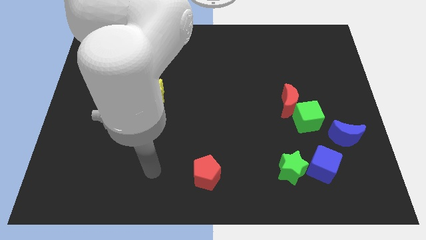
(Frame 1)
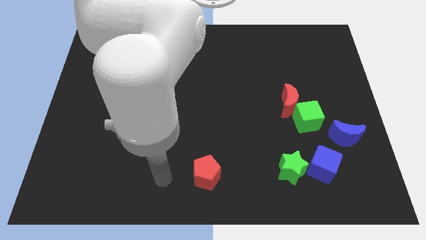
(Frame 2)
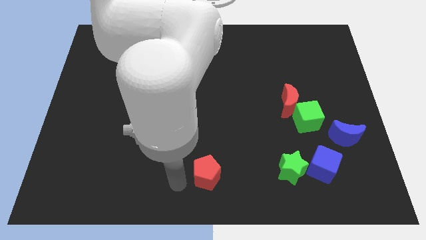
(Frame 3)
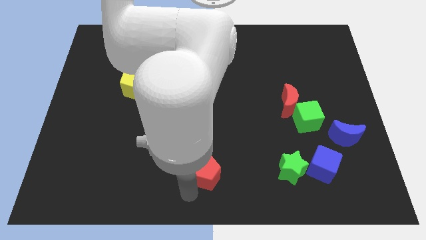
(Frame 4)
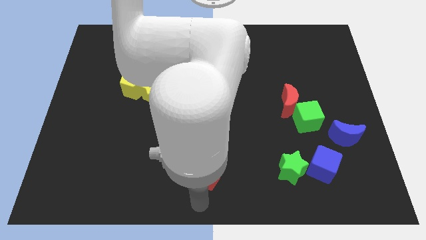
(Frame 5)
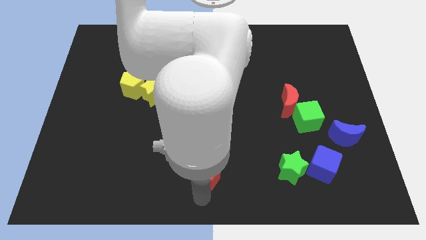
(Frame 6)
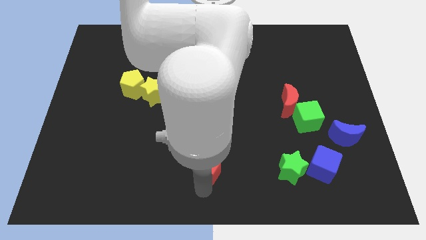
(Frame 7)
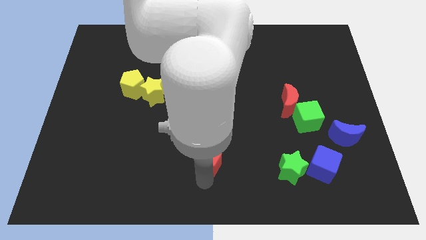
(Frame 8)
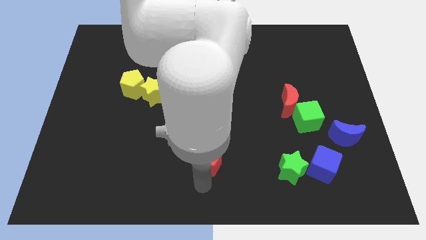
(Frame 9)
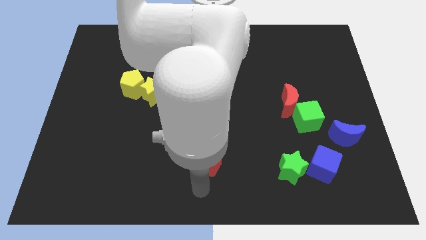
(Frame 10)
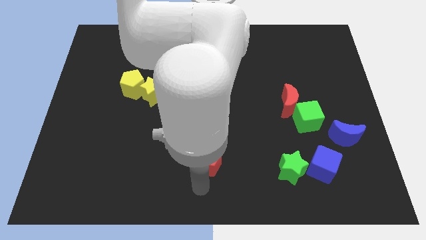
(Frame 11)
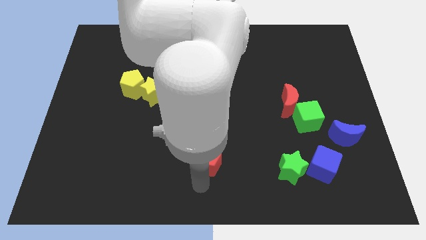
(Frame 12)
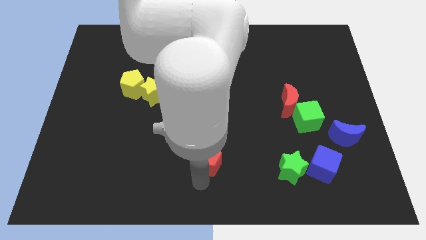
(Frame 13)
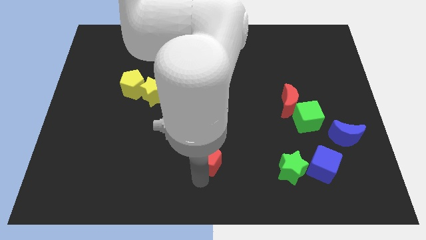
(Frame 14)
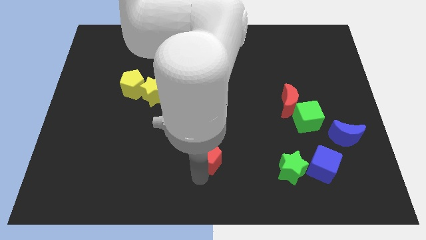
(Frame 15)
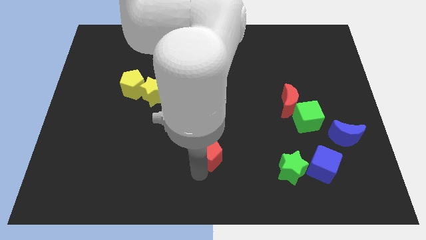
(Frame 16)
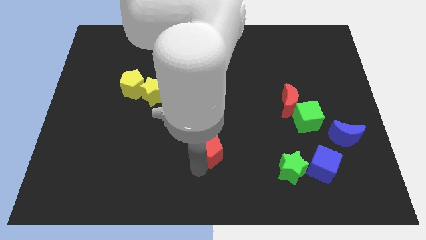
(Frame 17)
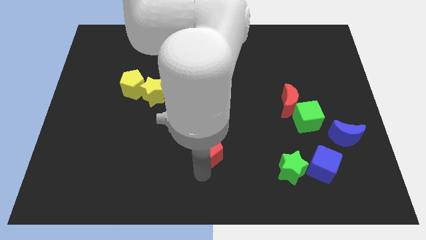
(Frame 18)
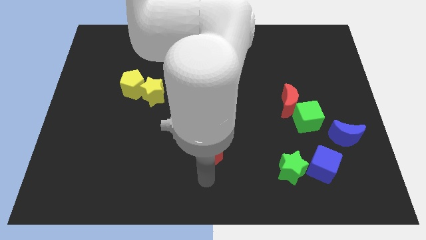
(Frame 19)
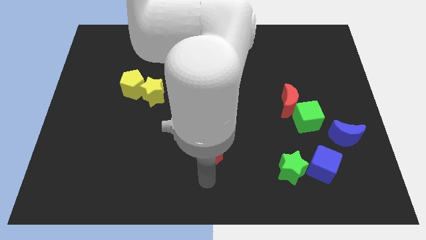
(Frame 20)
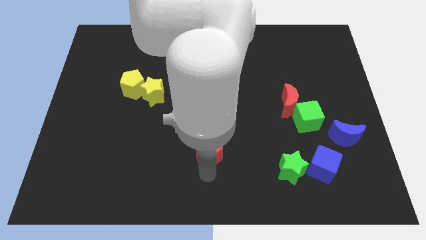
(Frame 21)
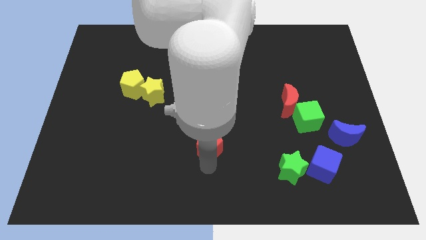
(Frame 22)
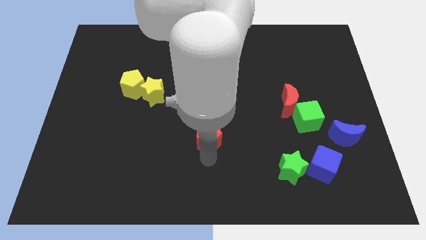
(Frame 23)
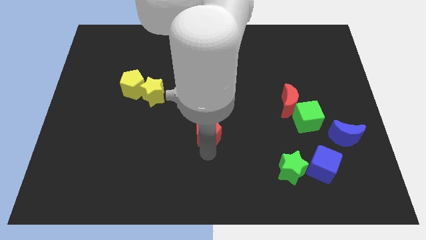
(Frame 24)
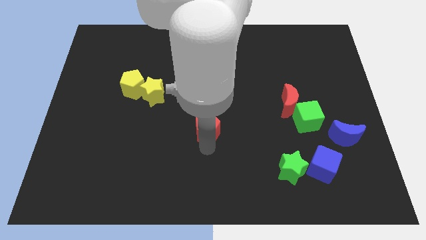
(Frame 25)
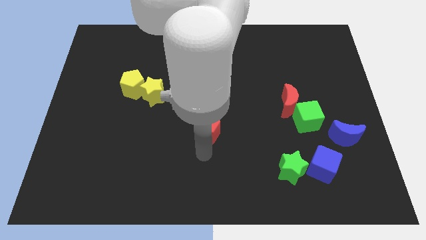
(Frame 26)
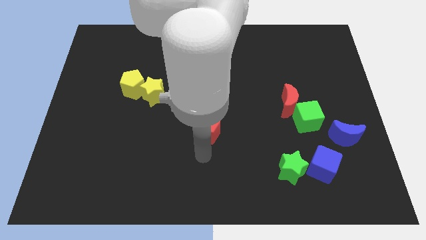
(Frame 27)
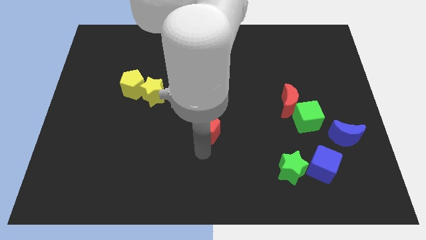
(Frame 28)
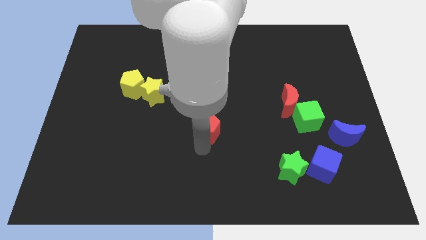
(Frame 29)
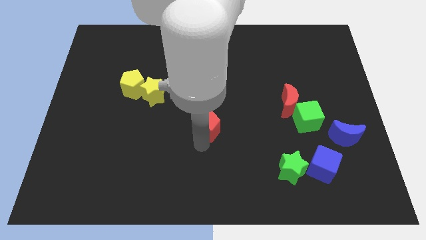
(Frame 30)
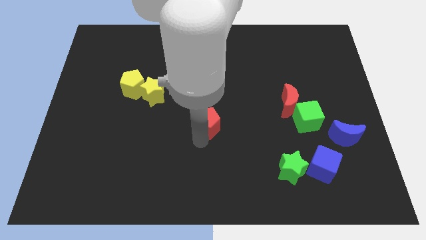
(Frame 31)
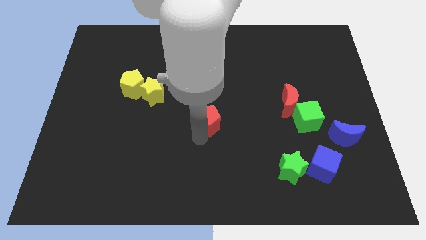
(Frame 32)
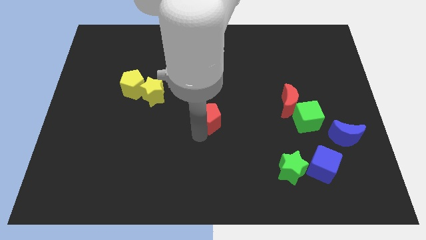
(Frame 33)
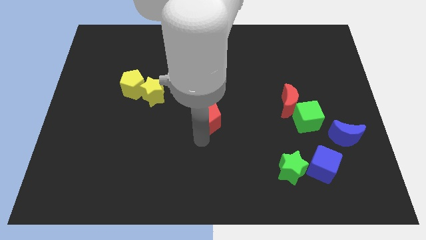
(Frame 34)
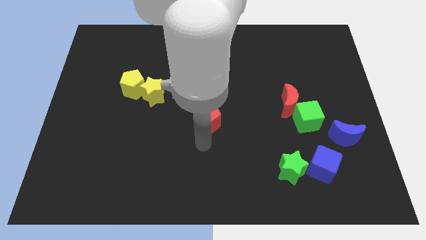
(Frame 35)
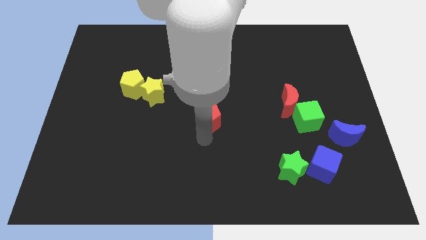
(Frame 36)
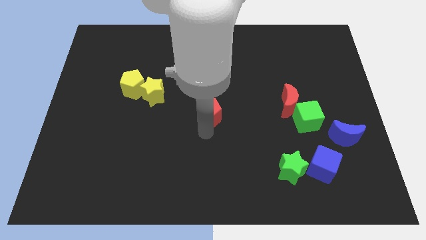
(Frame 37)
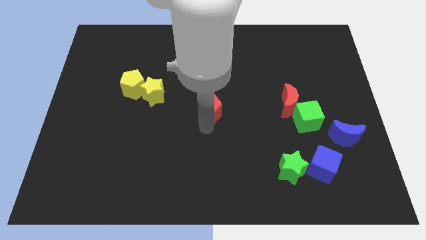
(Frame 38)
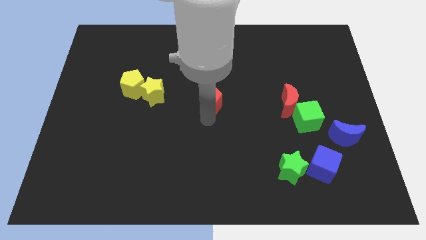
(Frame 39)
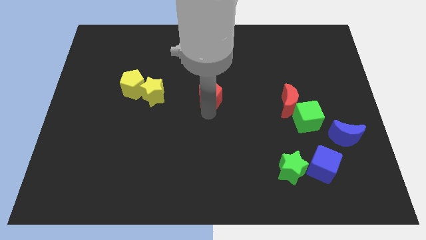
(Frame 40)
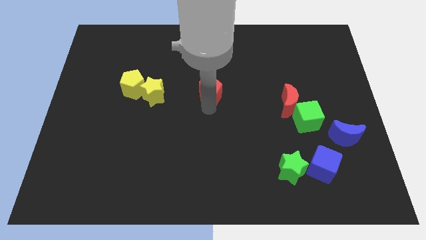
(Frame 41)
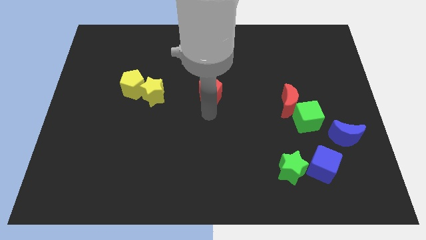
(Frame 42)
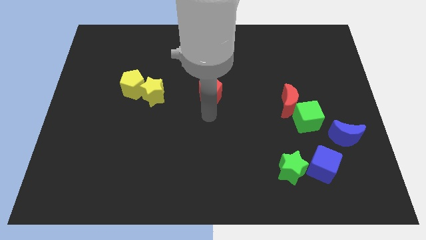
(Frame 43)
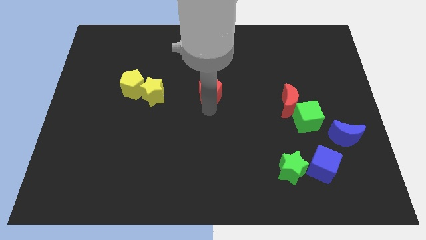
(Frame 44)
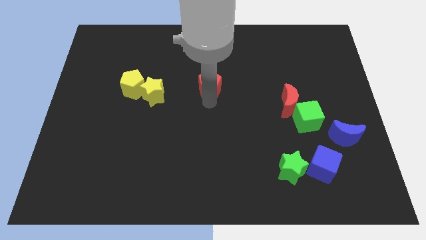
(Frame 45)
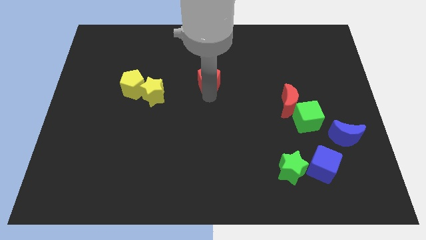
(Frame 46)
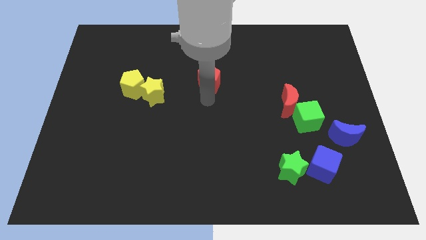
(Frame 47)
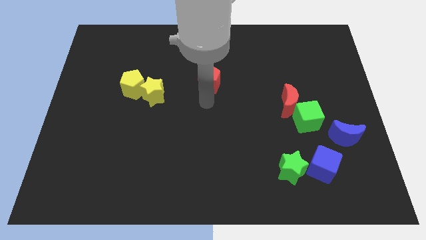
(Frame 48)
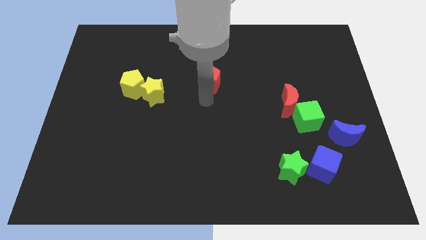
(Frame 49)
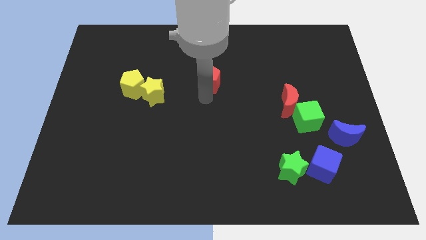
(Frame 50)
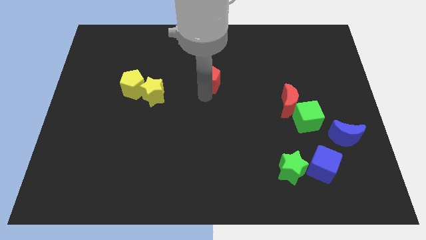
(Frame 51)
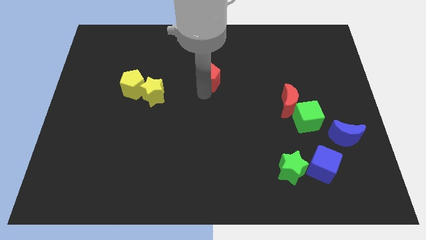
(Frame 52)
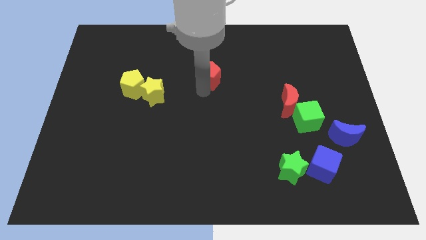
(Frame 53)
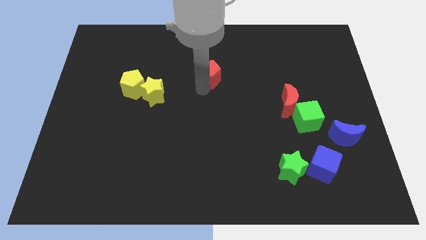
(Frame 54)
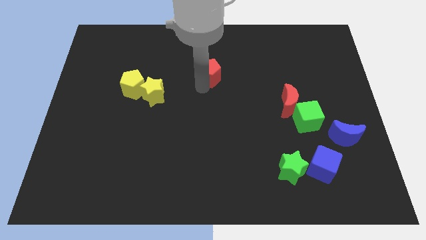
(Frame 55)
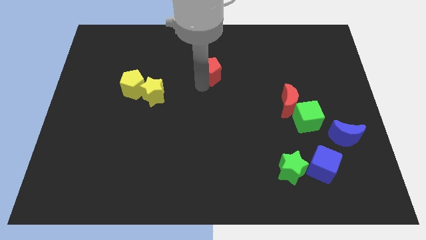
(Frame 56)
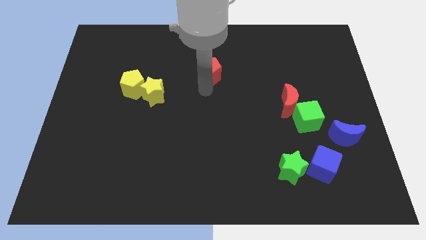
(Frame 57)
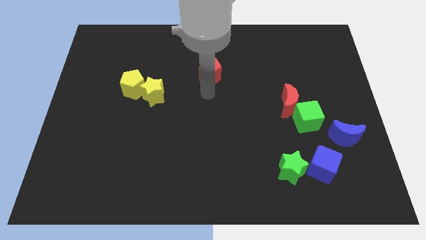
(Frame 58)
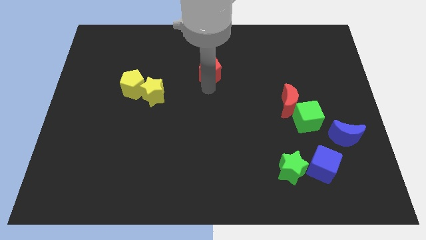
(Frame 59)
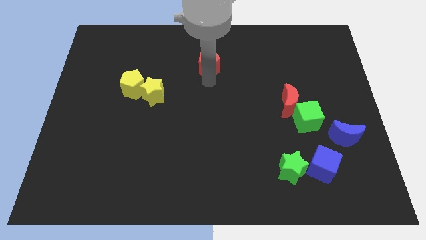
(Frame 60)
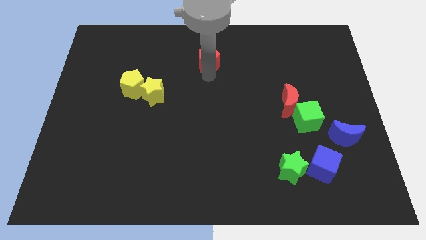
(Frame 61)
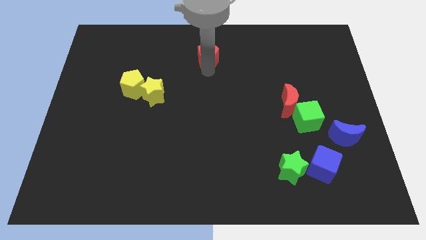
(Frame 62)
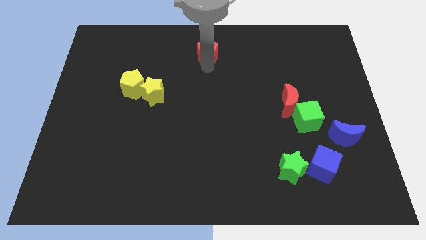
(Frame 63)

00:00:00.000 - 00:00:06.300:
put the red pentagon to the top

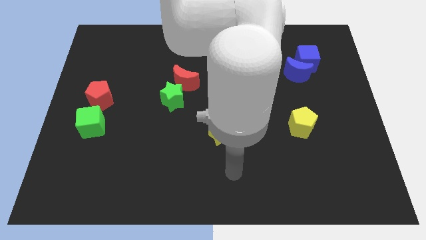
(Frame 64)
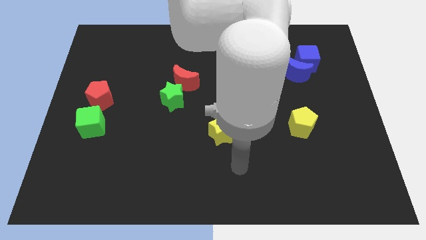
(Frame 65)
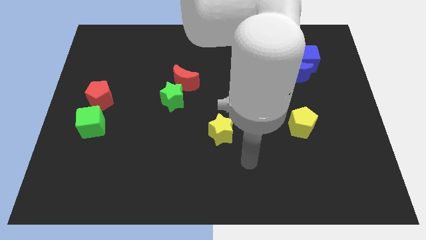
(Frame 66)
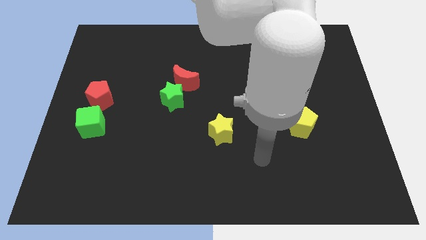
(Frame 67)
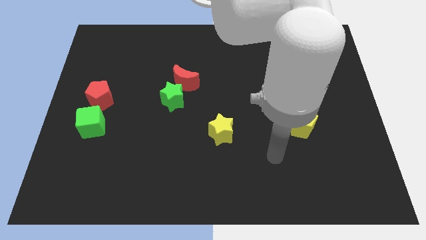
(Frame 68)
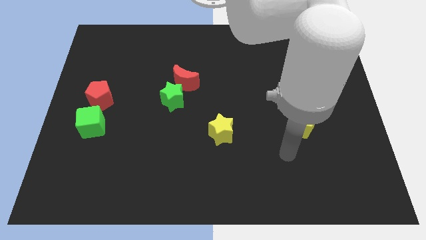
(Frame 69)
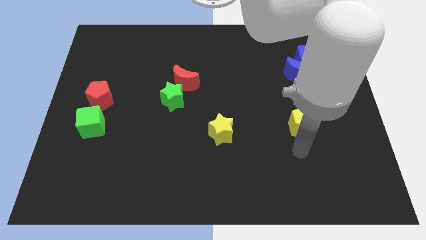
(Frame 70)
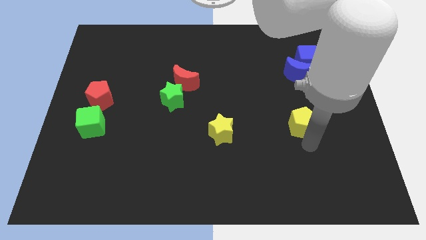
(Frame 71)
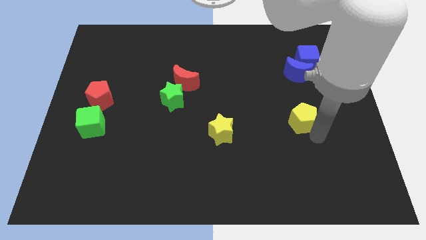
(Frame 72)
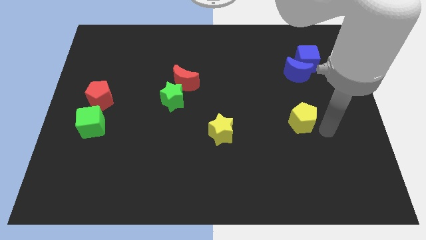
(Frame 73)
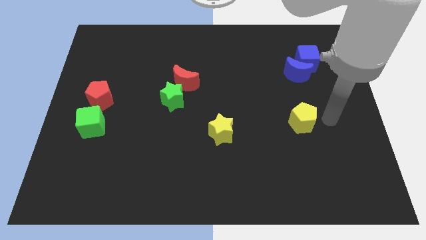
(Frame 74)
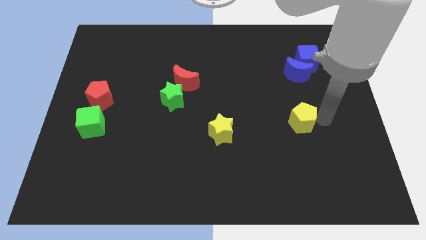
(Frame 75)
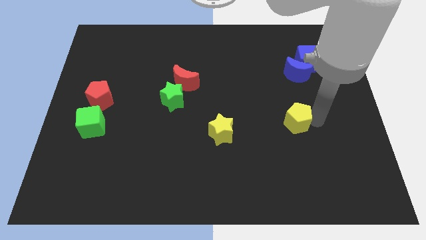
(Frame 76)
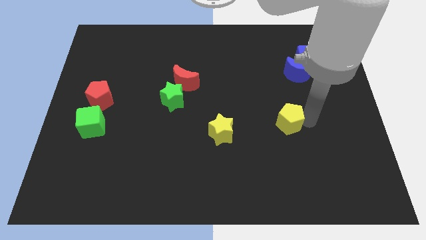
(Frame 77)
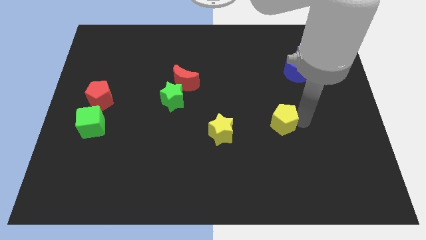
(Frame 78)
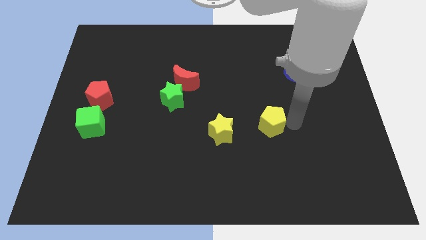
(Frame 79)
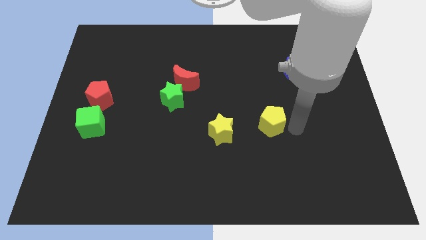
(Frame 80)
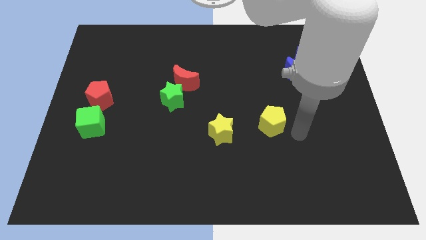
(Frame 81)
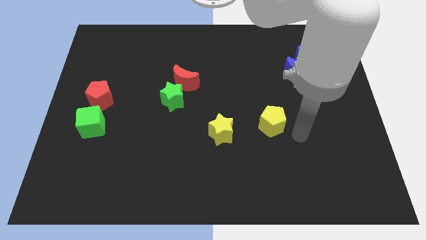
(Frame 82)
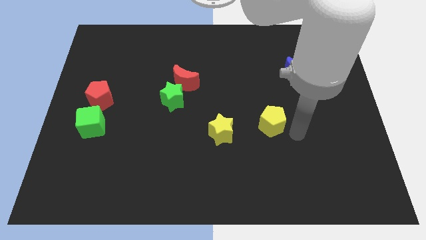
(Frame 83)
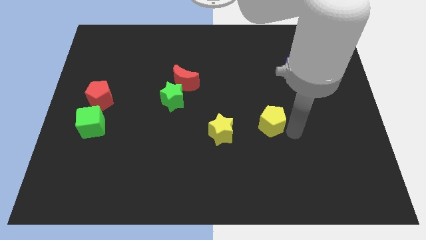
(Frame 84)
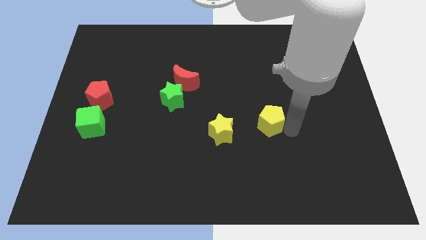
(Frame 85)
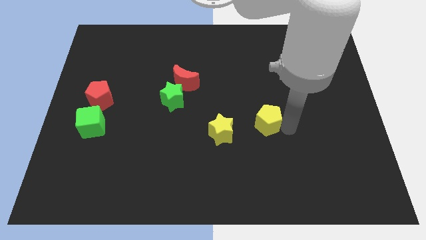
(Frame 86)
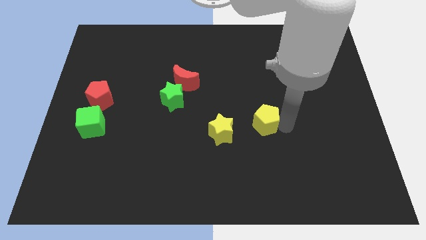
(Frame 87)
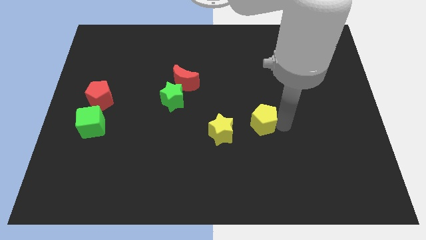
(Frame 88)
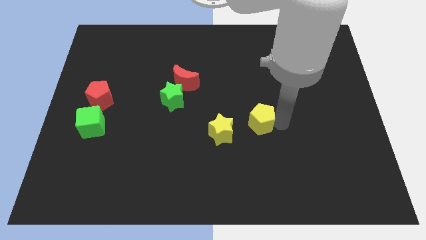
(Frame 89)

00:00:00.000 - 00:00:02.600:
put the yellow pentagon to the middle of the board
